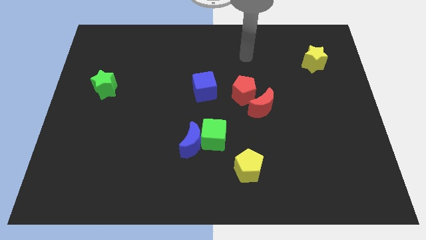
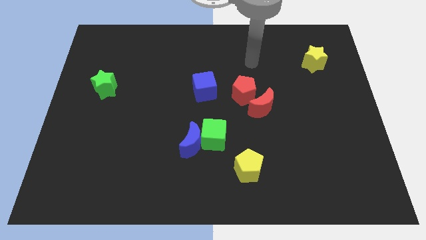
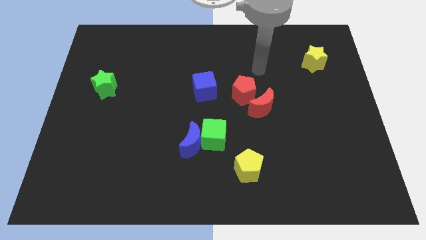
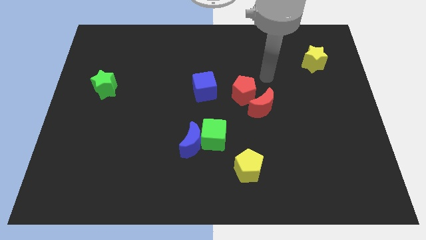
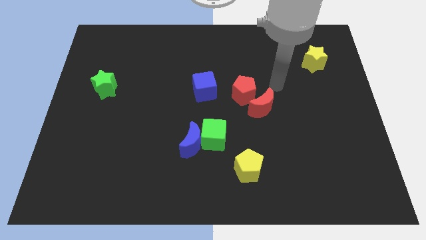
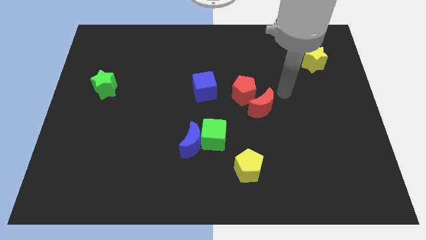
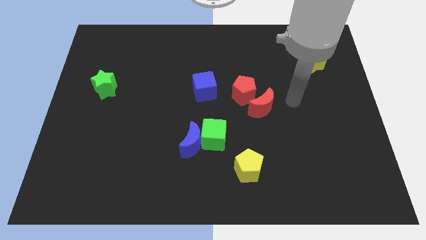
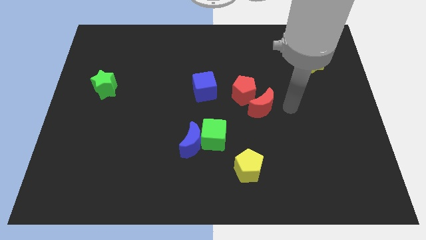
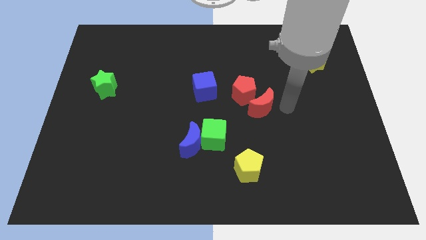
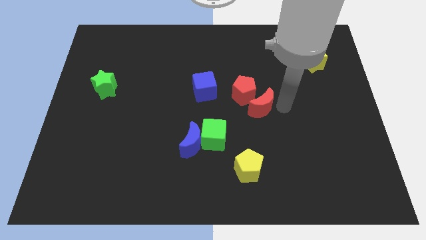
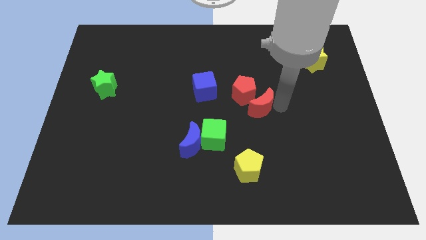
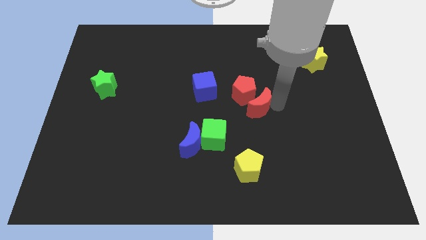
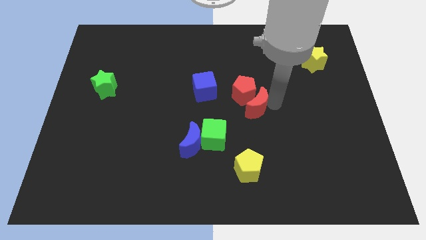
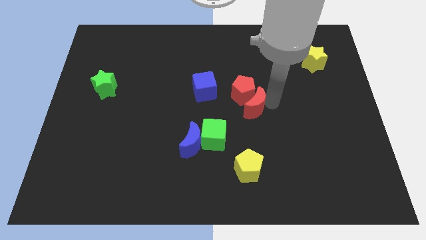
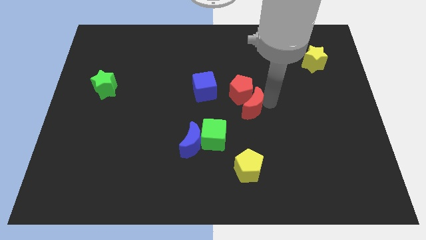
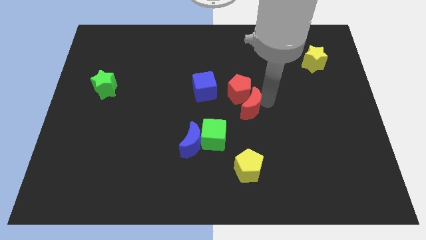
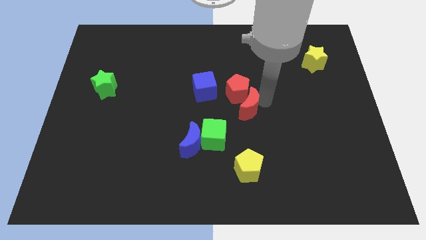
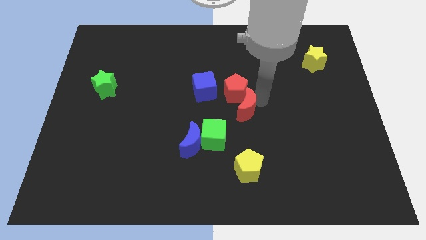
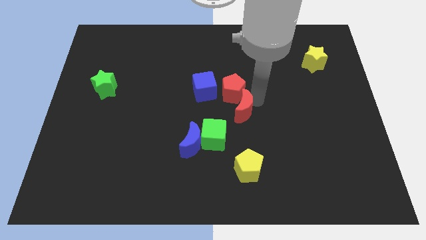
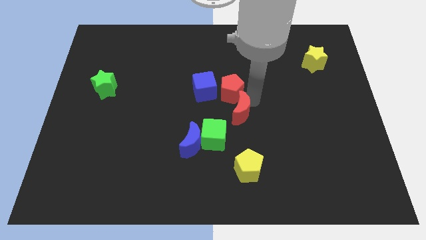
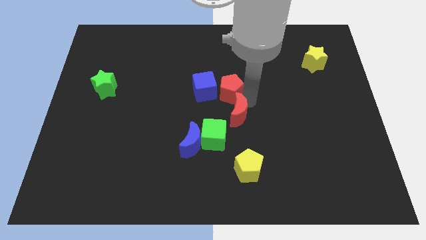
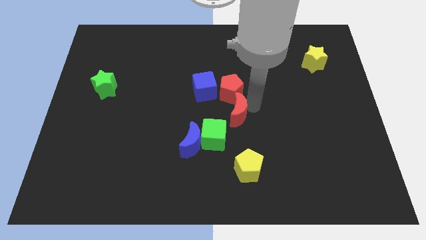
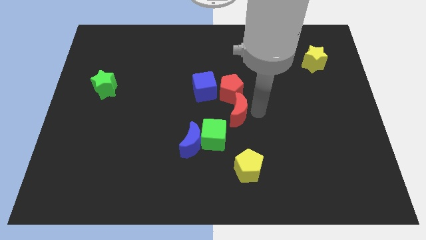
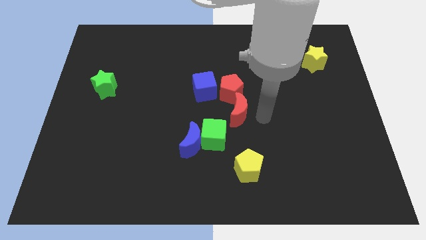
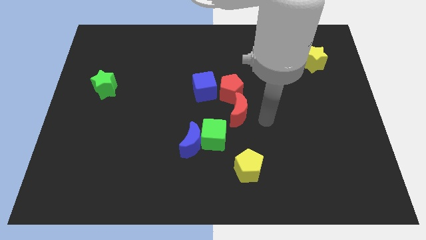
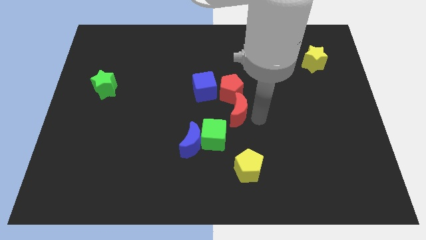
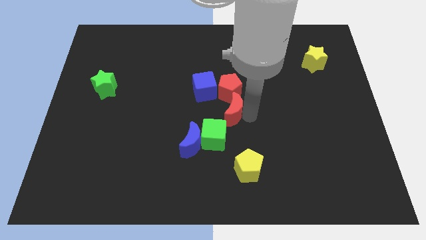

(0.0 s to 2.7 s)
slide the red moon a bit left

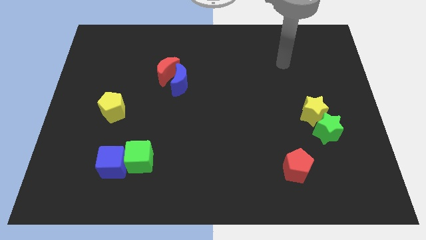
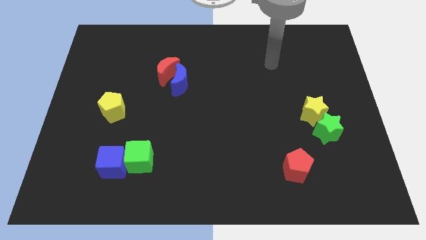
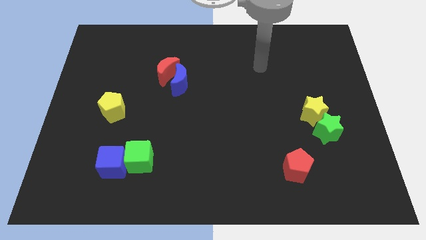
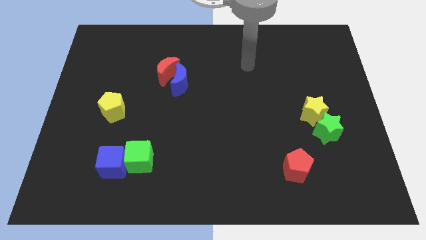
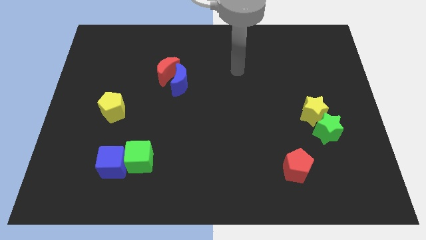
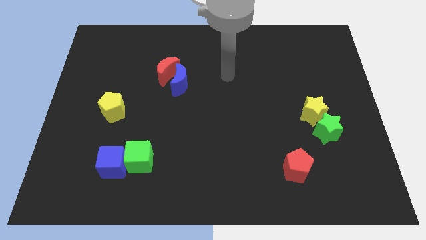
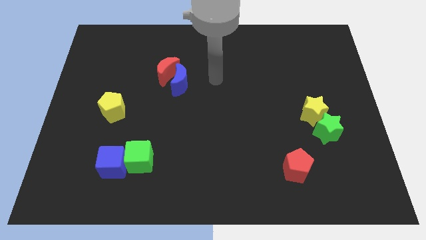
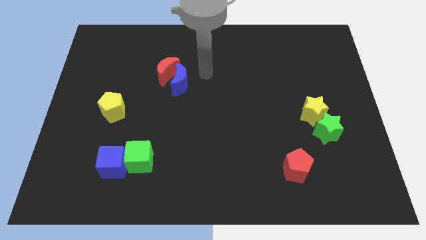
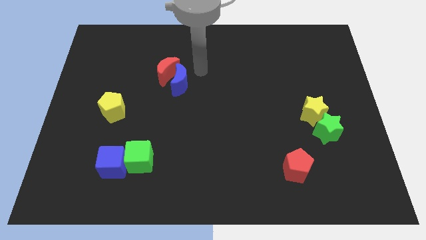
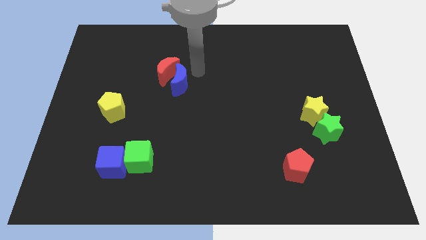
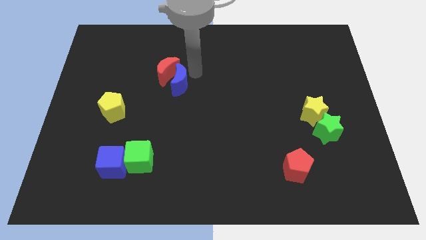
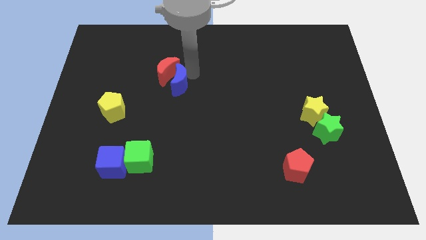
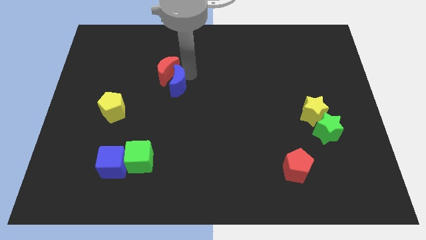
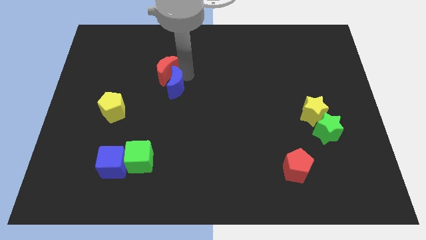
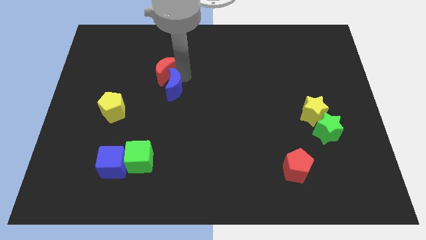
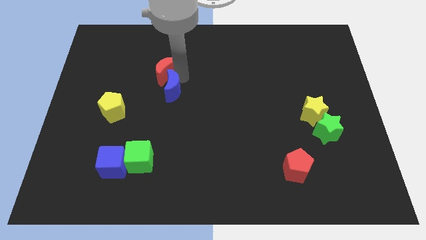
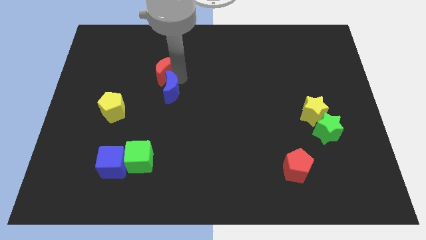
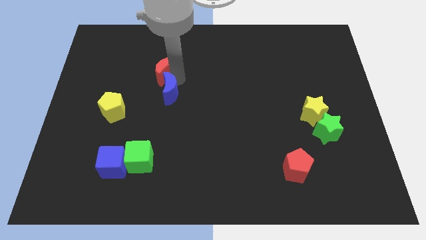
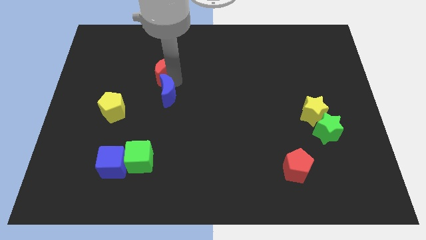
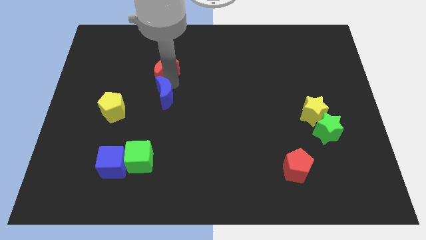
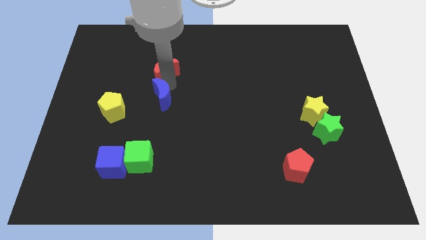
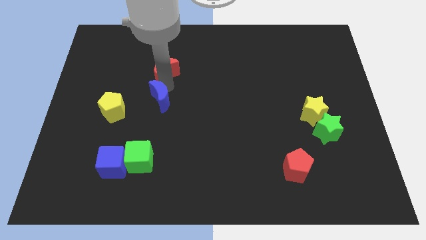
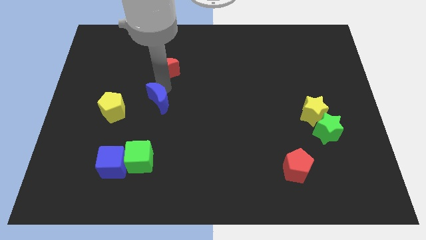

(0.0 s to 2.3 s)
slide the blue moon down and to the left diagonally a little bit

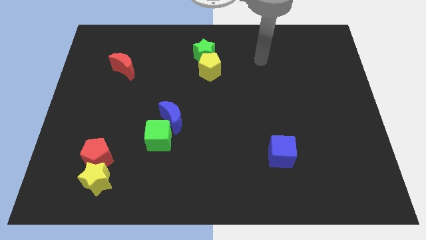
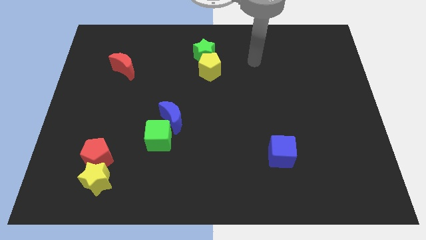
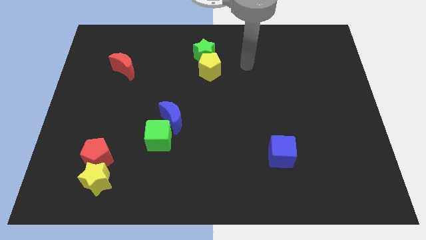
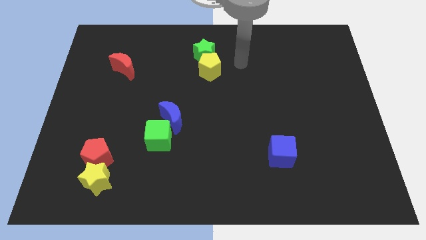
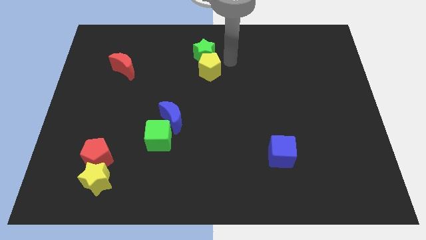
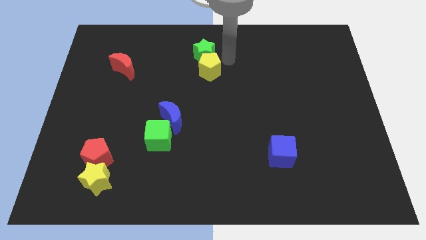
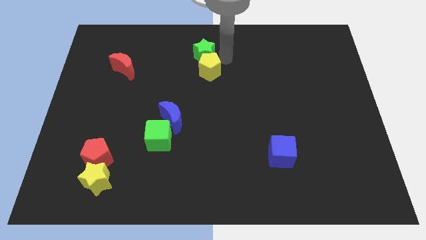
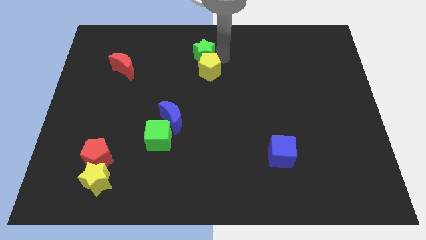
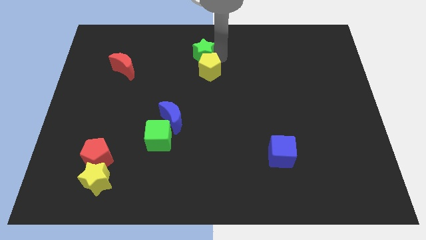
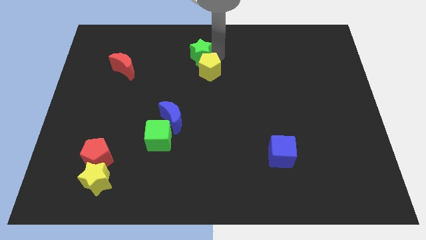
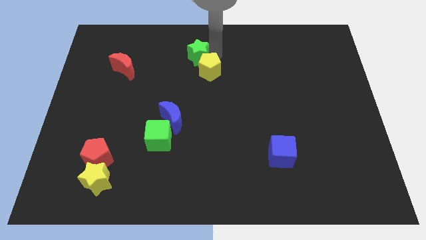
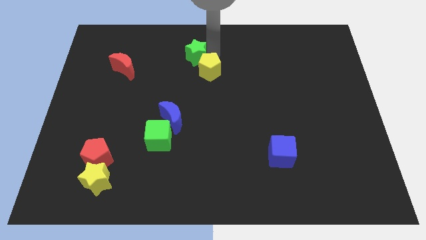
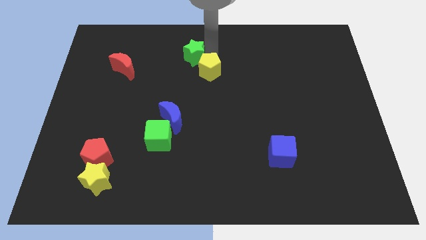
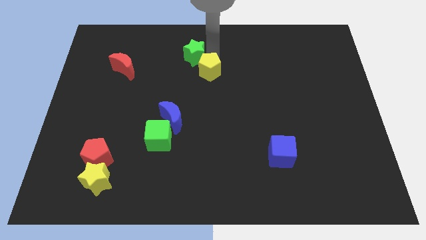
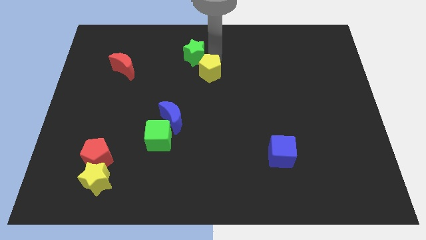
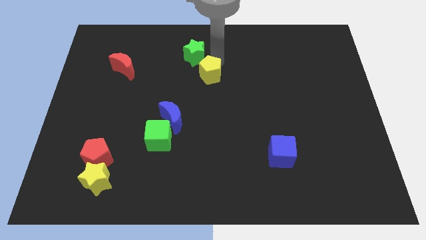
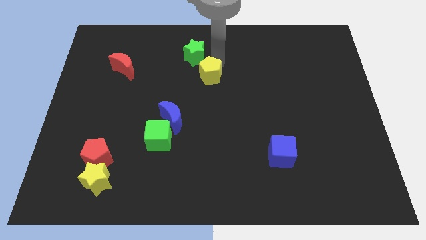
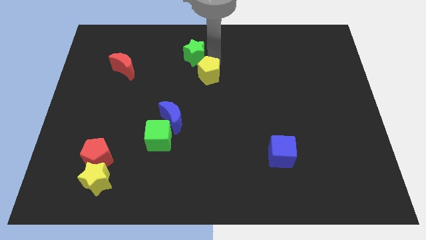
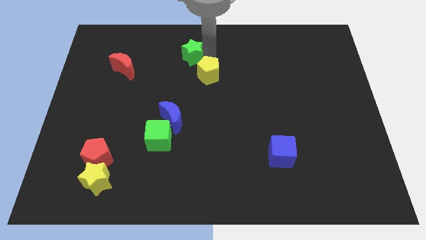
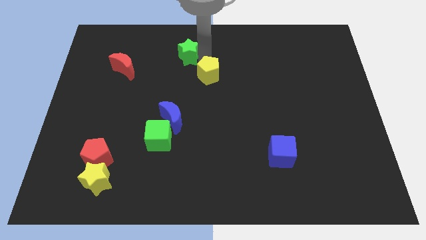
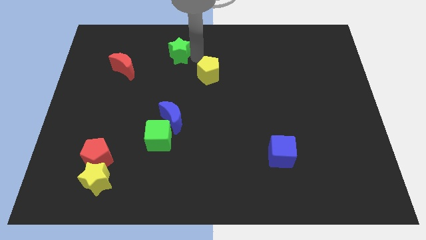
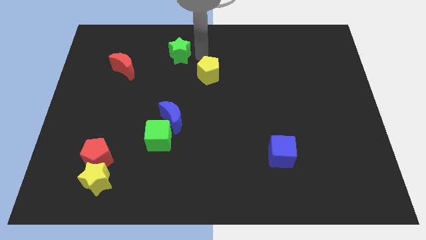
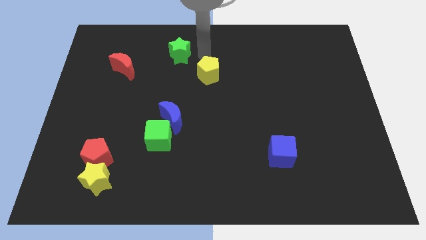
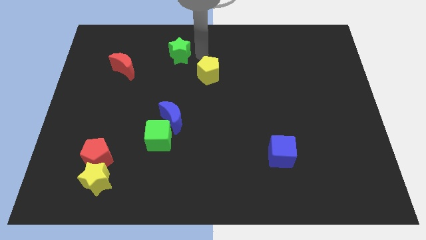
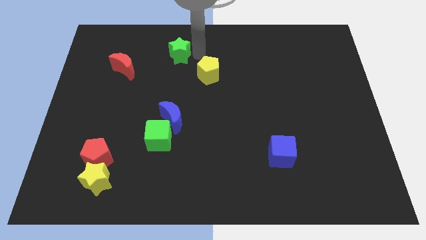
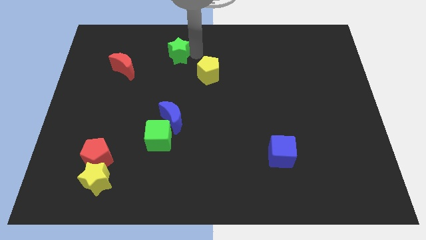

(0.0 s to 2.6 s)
slide the green star a little bit to the left

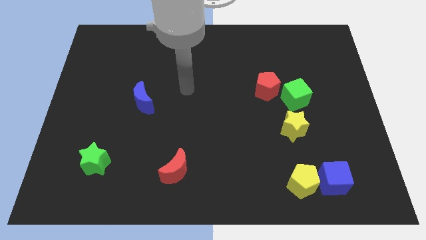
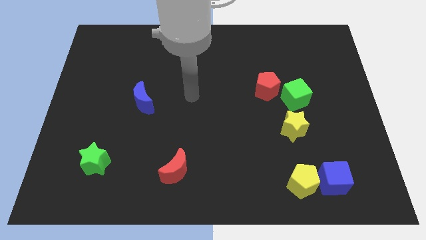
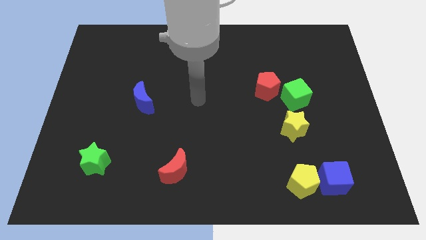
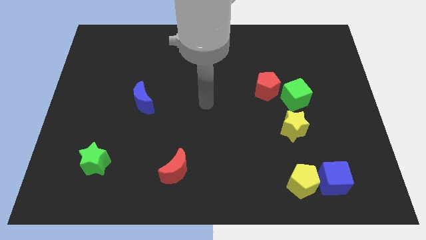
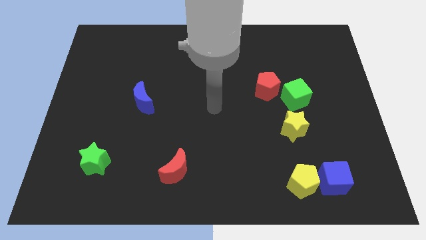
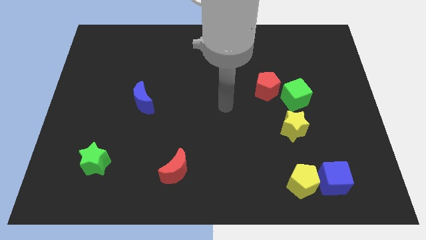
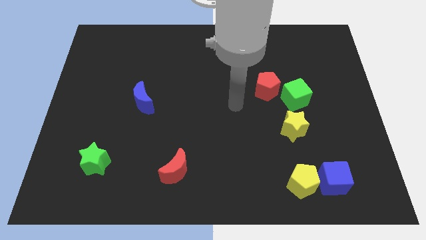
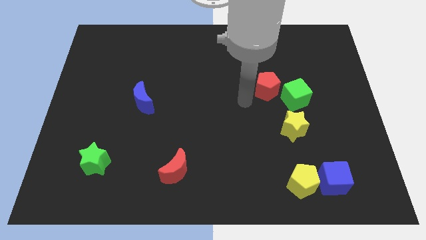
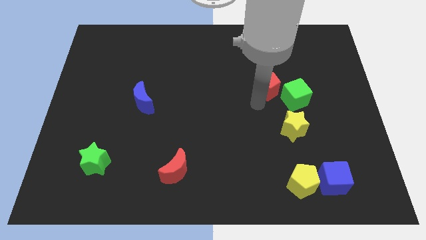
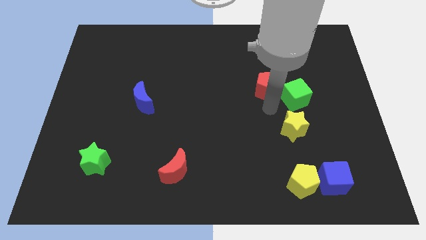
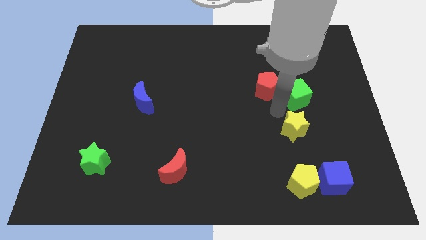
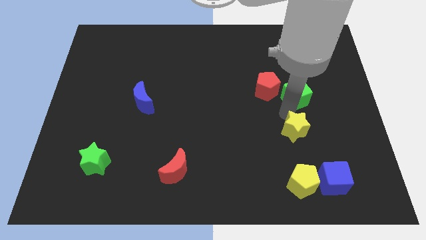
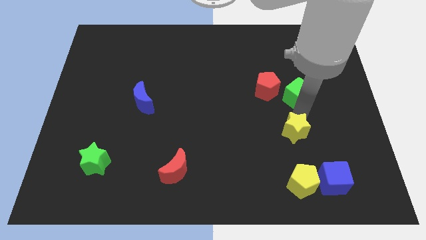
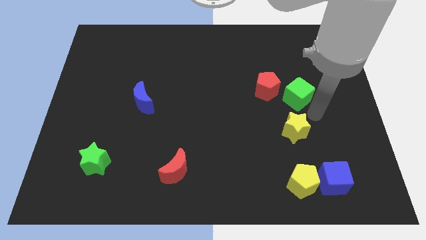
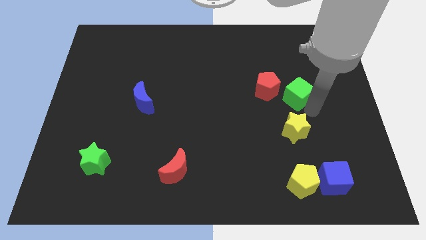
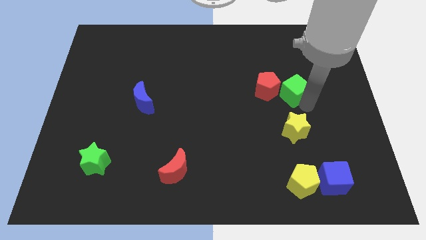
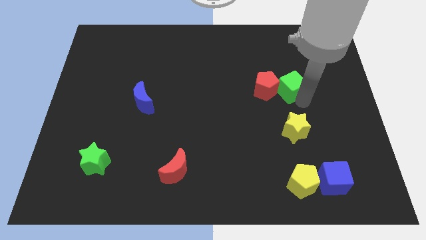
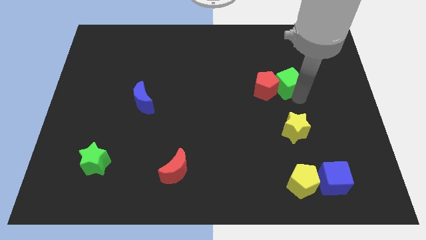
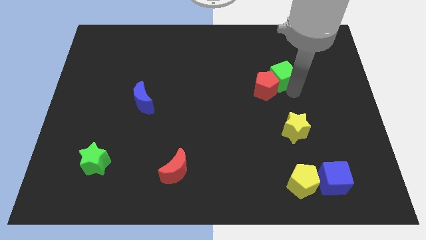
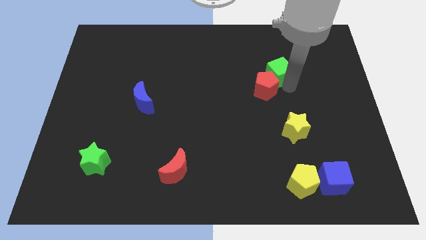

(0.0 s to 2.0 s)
slightly move the green cube upwards and left
